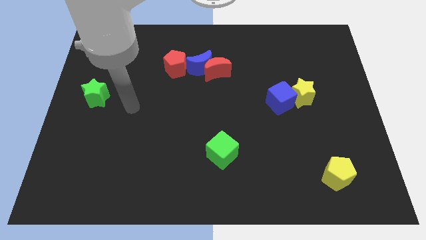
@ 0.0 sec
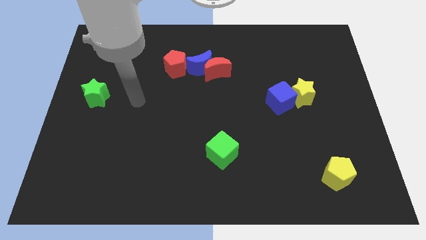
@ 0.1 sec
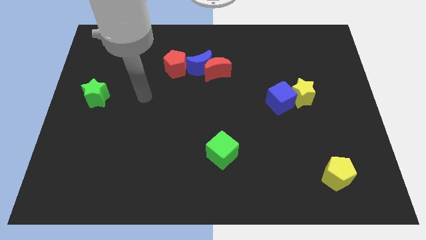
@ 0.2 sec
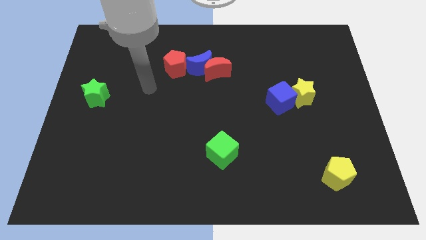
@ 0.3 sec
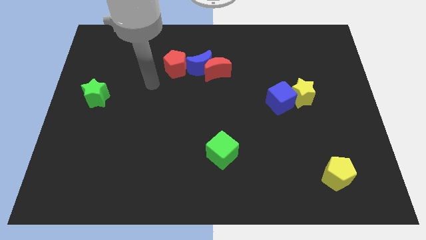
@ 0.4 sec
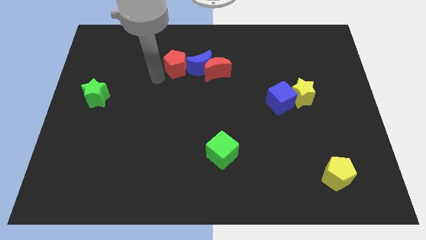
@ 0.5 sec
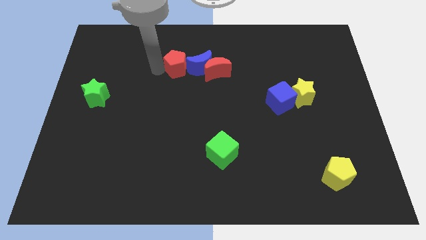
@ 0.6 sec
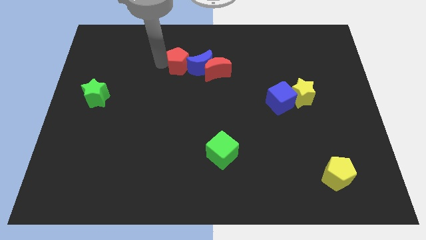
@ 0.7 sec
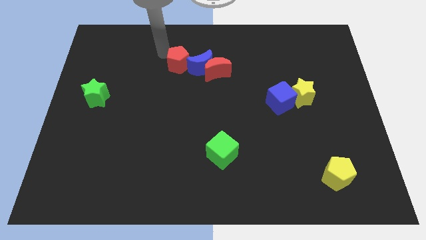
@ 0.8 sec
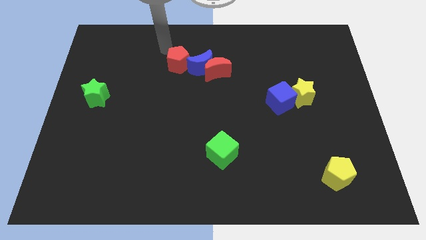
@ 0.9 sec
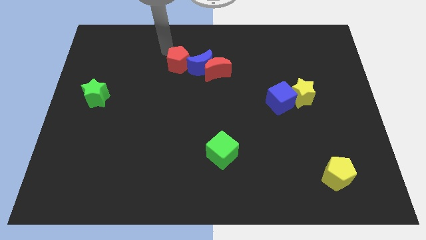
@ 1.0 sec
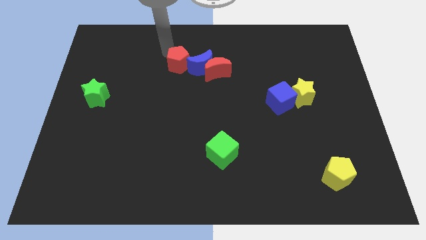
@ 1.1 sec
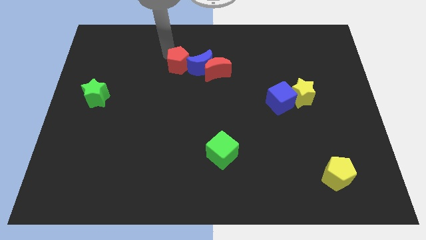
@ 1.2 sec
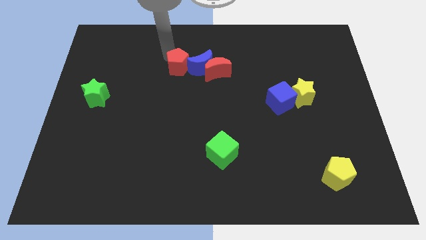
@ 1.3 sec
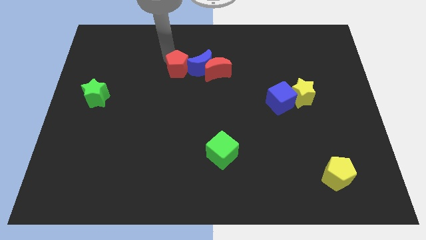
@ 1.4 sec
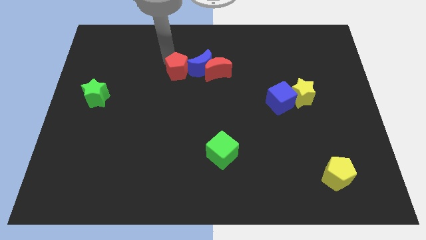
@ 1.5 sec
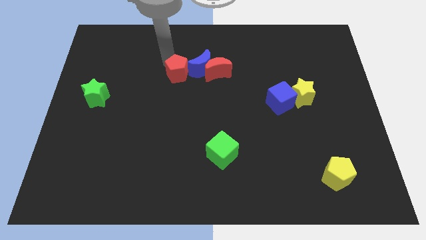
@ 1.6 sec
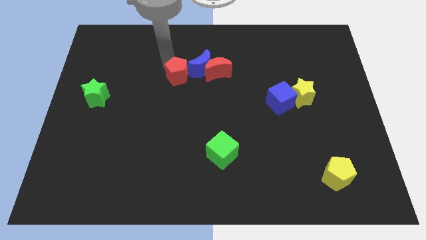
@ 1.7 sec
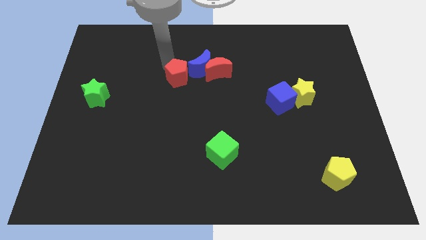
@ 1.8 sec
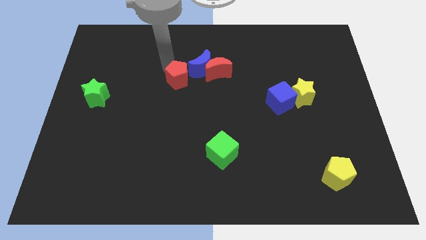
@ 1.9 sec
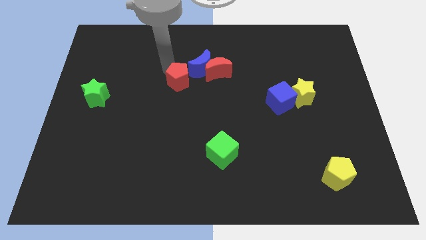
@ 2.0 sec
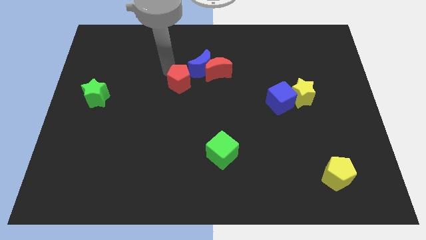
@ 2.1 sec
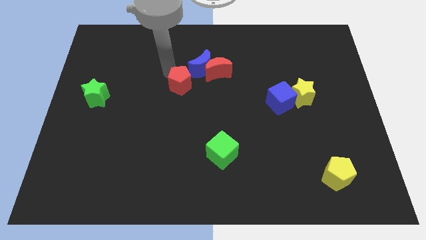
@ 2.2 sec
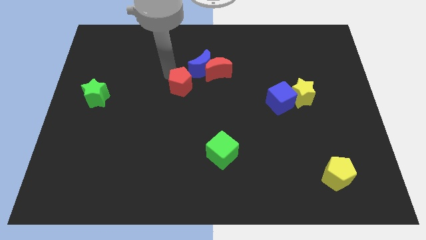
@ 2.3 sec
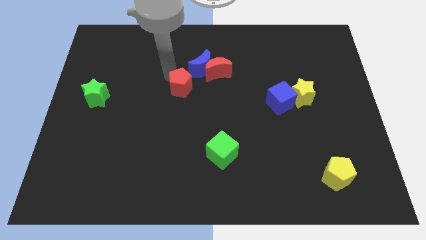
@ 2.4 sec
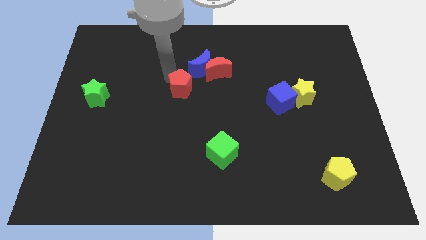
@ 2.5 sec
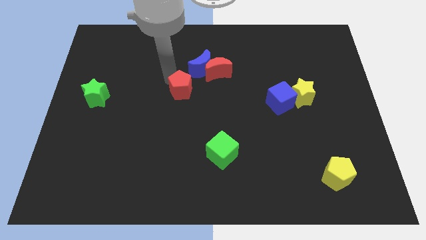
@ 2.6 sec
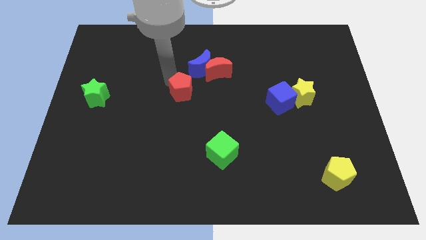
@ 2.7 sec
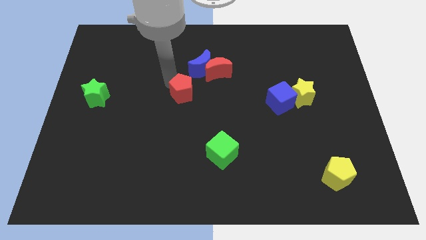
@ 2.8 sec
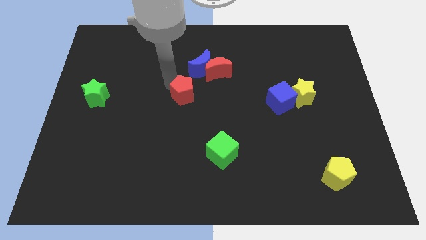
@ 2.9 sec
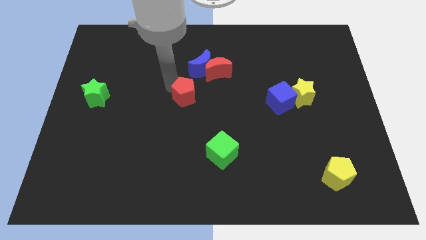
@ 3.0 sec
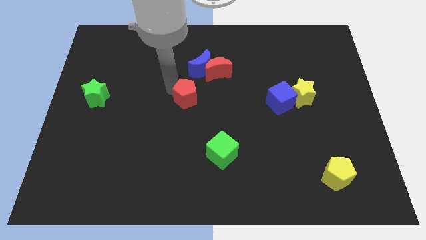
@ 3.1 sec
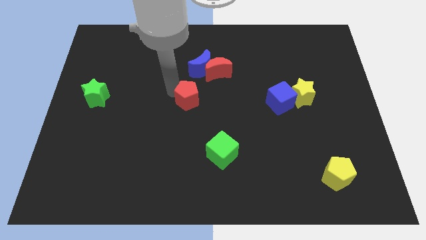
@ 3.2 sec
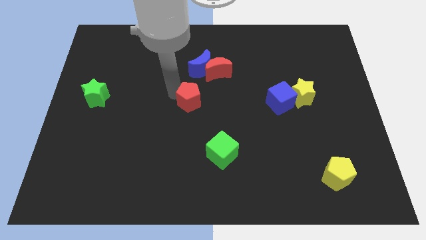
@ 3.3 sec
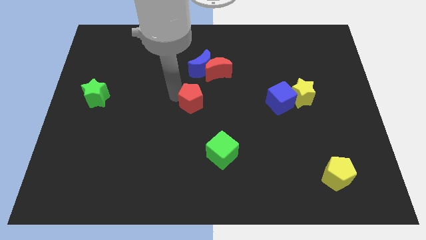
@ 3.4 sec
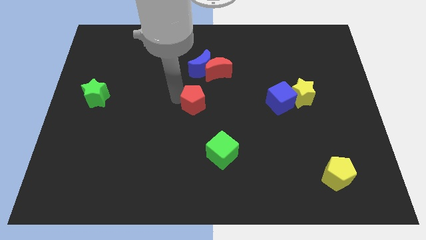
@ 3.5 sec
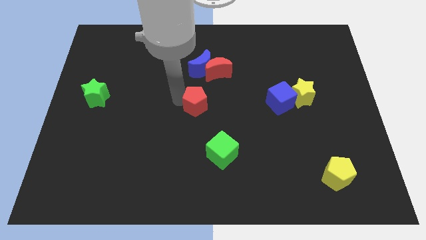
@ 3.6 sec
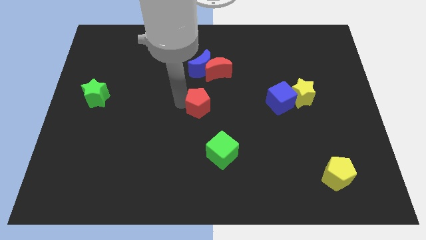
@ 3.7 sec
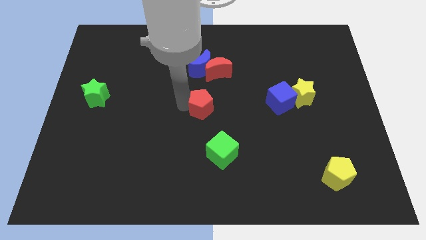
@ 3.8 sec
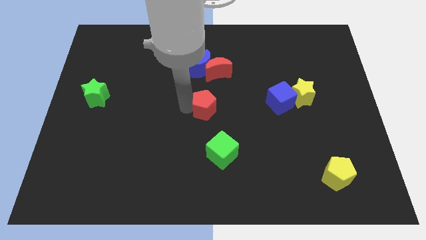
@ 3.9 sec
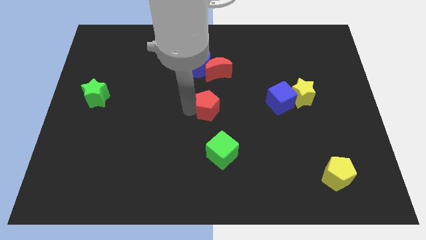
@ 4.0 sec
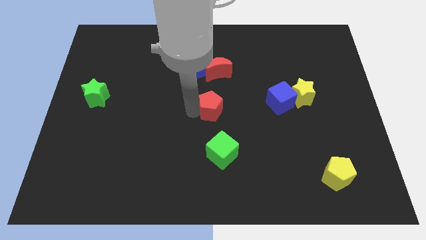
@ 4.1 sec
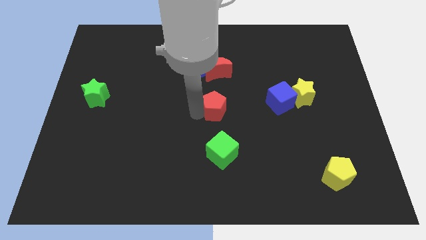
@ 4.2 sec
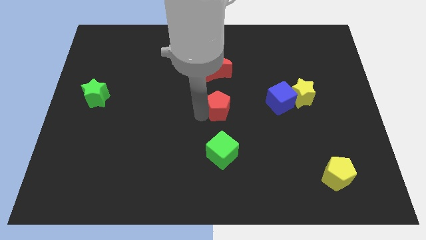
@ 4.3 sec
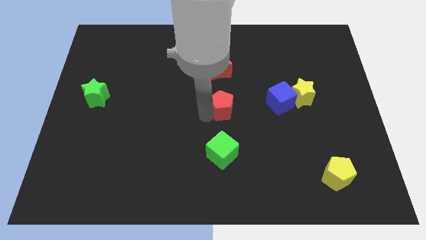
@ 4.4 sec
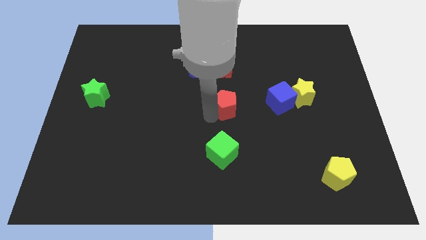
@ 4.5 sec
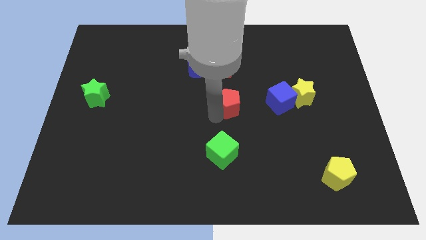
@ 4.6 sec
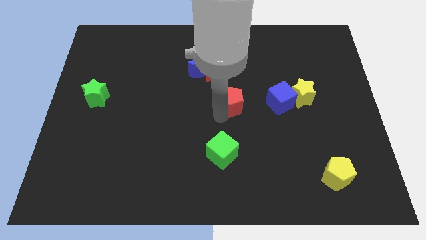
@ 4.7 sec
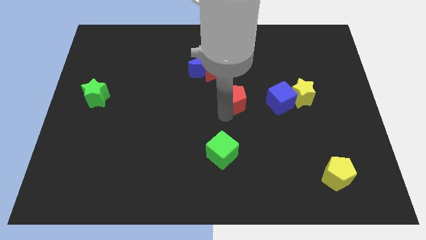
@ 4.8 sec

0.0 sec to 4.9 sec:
move the red pentagon right slightly

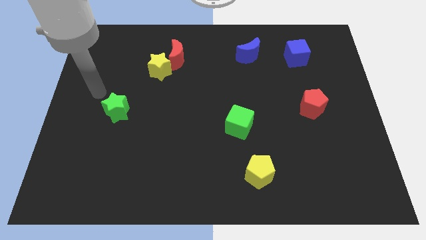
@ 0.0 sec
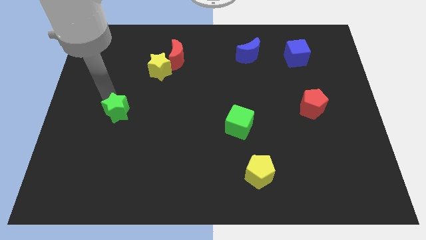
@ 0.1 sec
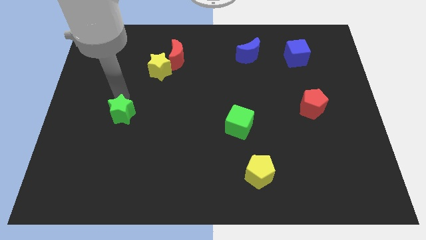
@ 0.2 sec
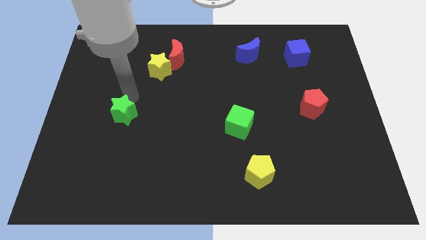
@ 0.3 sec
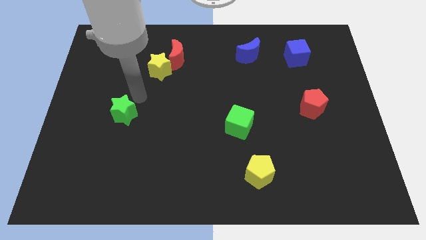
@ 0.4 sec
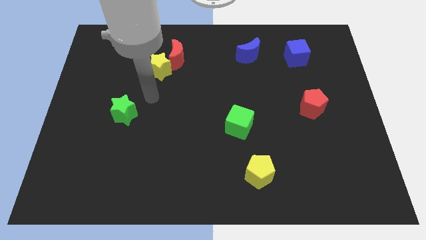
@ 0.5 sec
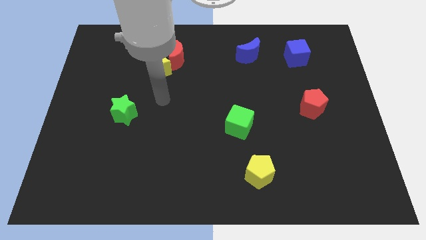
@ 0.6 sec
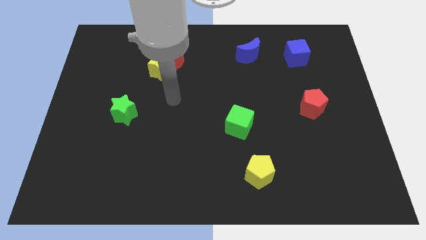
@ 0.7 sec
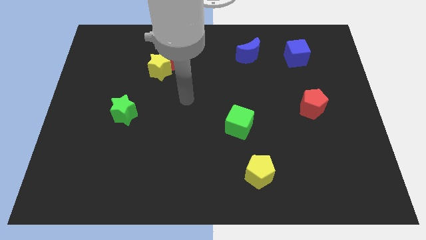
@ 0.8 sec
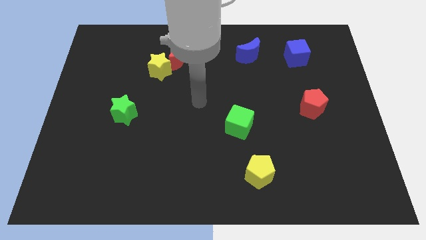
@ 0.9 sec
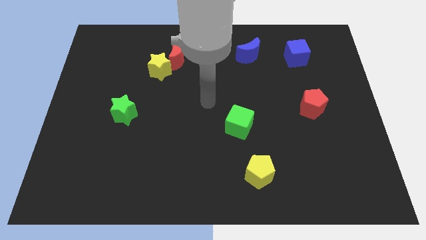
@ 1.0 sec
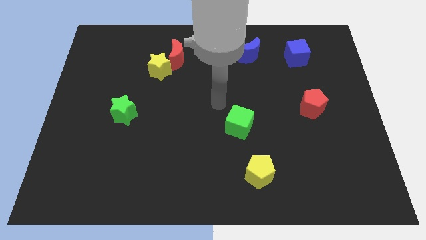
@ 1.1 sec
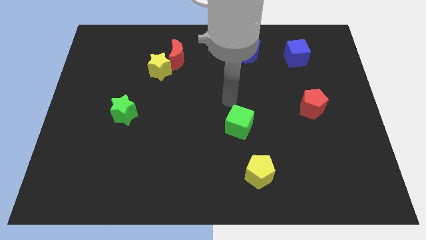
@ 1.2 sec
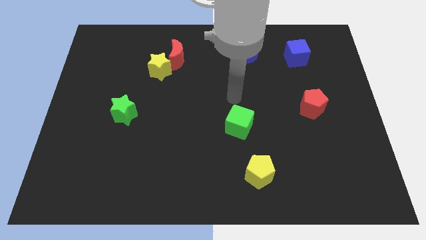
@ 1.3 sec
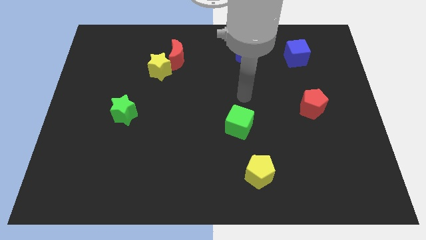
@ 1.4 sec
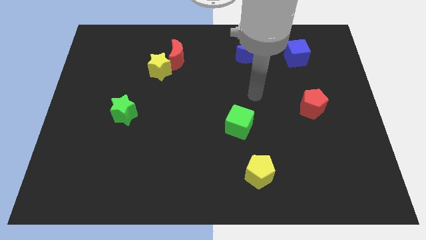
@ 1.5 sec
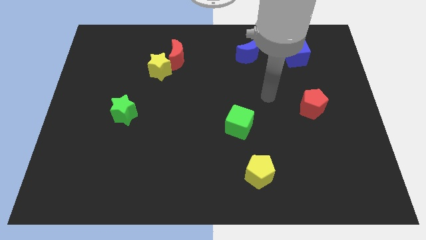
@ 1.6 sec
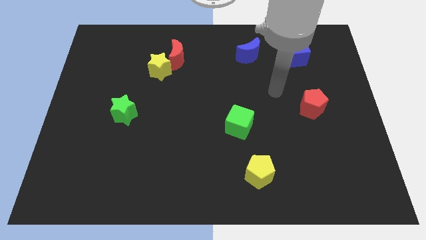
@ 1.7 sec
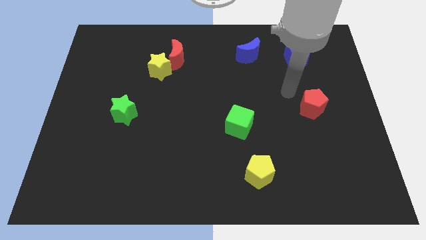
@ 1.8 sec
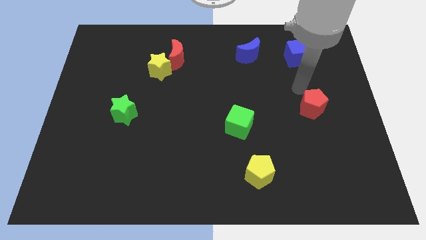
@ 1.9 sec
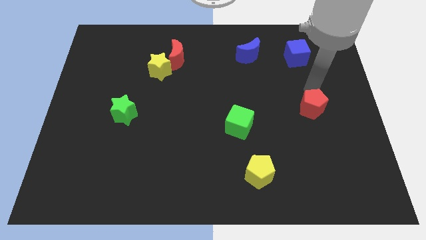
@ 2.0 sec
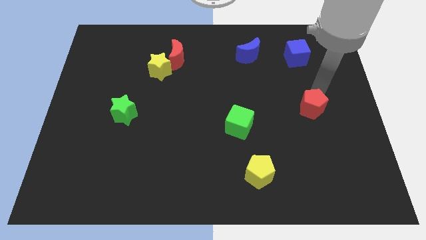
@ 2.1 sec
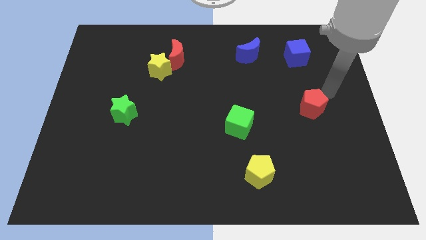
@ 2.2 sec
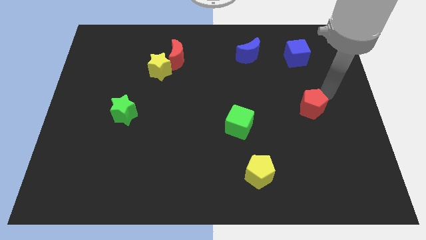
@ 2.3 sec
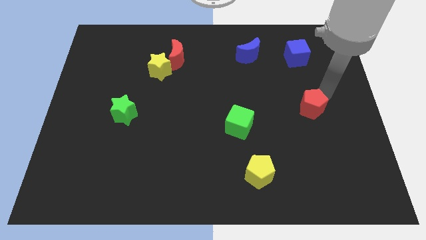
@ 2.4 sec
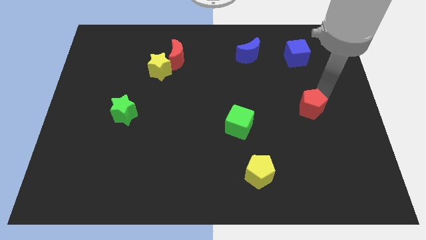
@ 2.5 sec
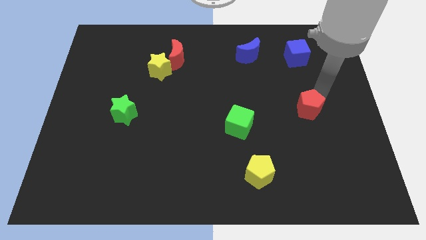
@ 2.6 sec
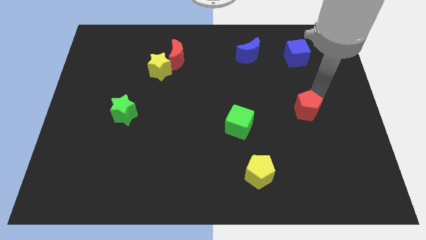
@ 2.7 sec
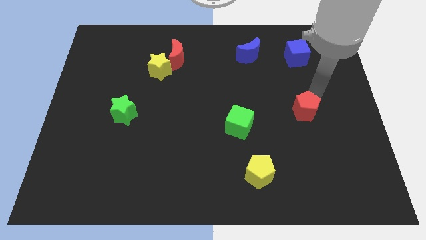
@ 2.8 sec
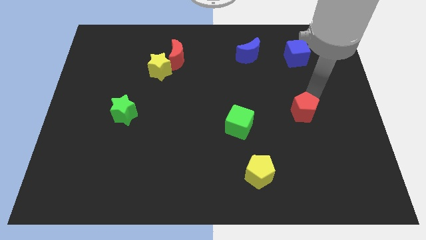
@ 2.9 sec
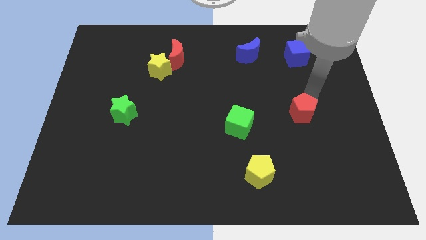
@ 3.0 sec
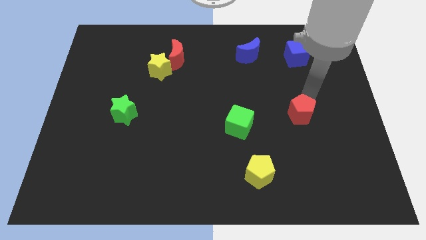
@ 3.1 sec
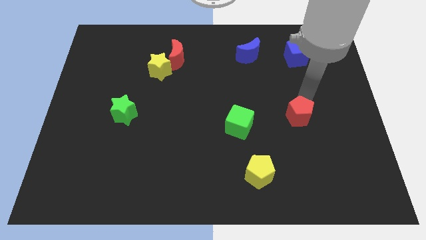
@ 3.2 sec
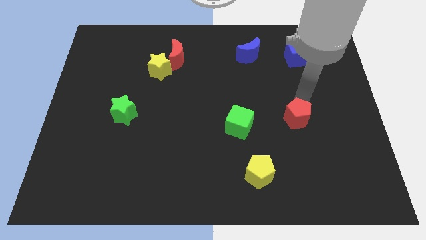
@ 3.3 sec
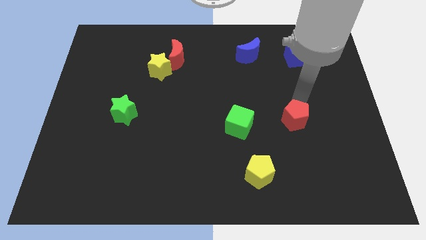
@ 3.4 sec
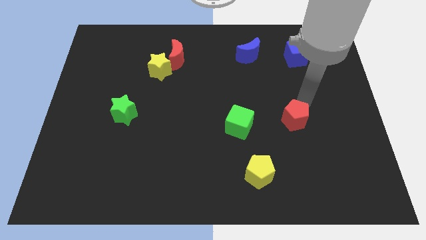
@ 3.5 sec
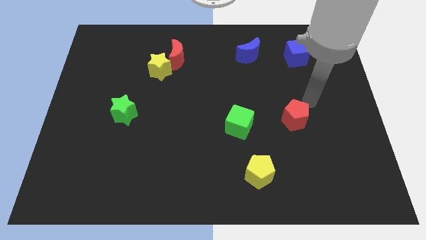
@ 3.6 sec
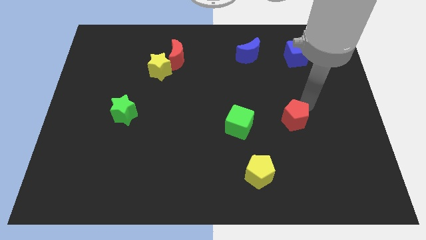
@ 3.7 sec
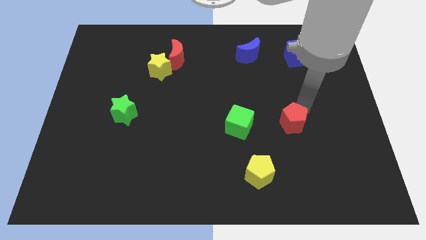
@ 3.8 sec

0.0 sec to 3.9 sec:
slide the red pentagon downwards and then left a little
